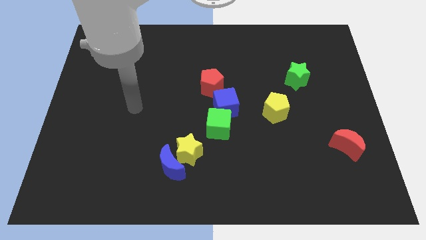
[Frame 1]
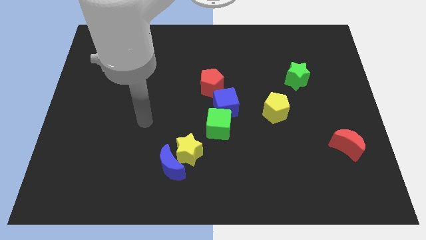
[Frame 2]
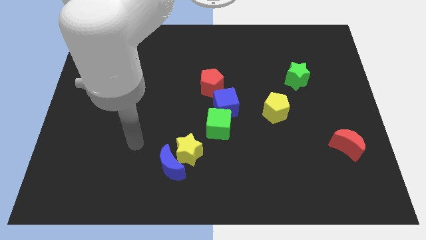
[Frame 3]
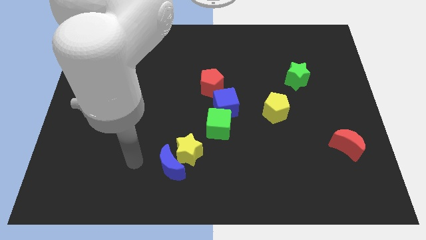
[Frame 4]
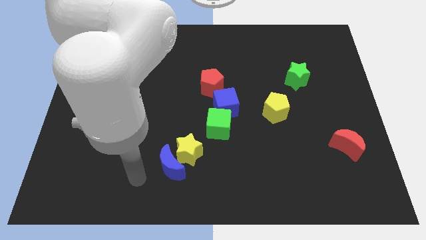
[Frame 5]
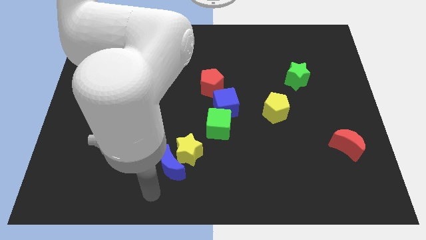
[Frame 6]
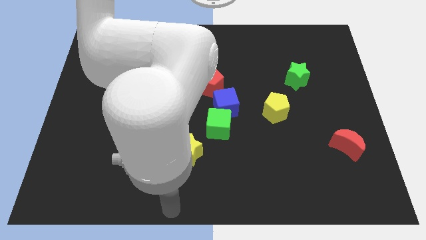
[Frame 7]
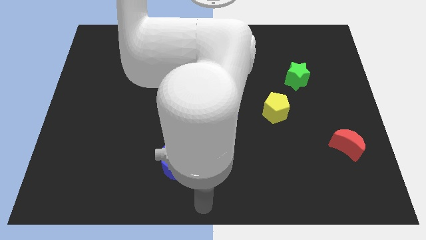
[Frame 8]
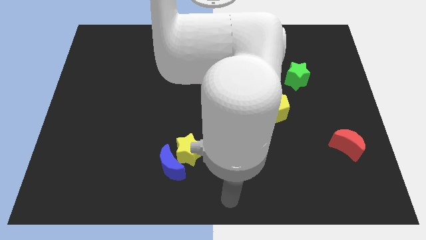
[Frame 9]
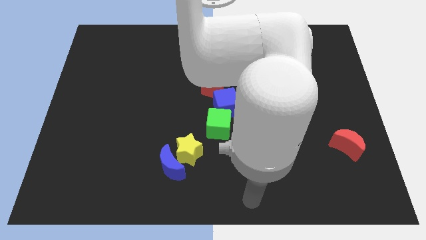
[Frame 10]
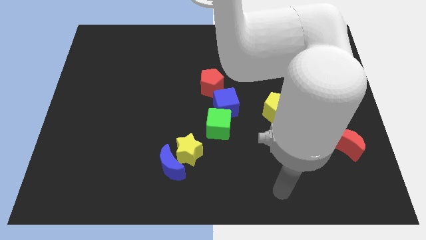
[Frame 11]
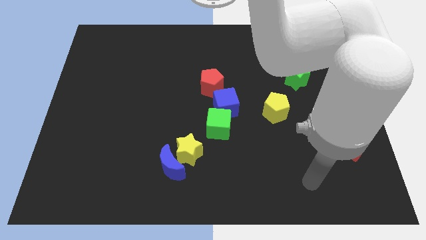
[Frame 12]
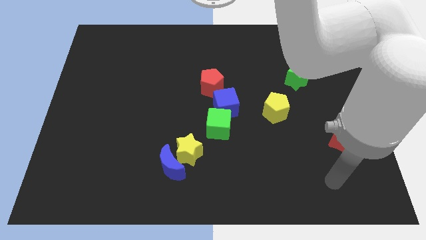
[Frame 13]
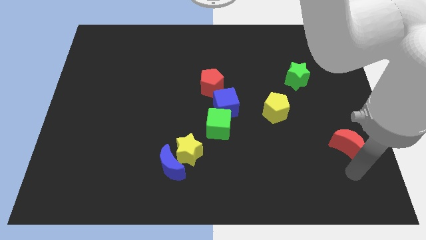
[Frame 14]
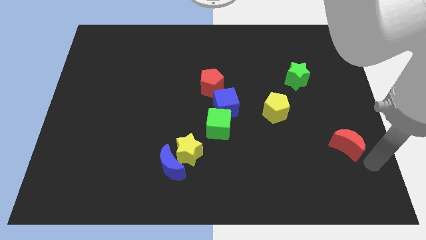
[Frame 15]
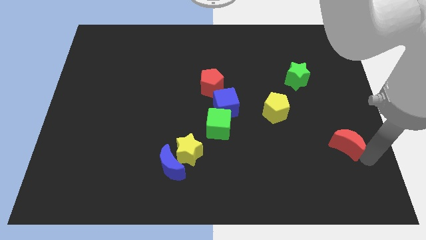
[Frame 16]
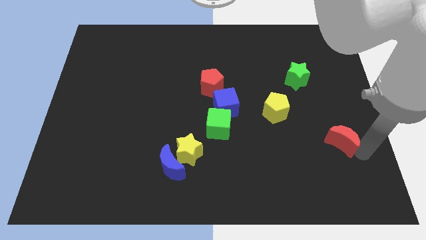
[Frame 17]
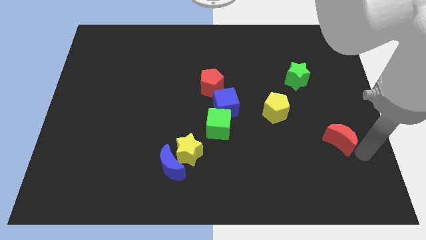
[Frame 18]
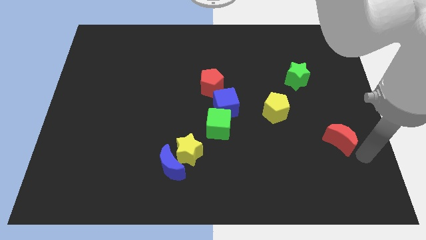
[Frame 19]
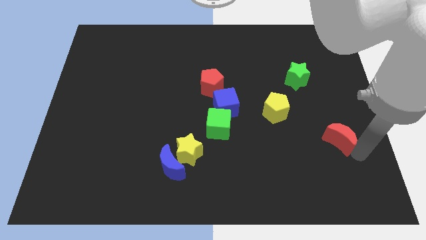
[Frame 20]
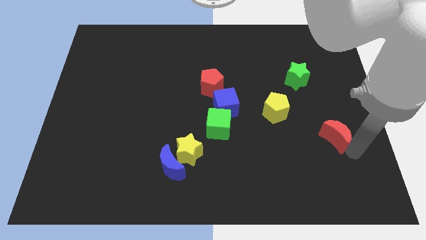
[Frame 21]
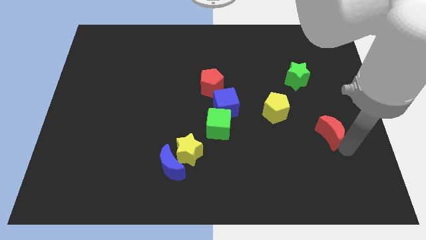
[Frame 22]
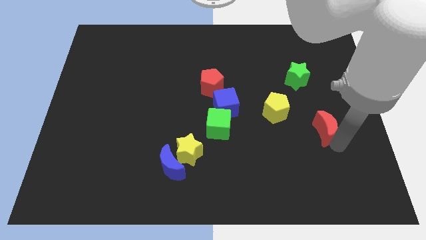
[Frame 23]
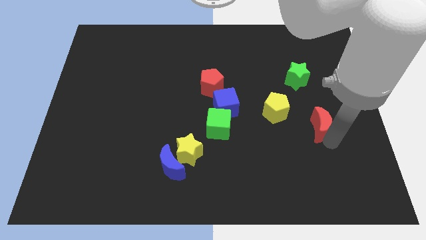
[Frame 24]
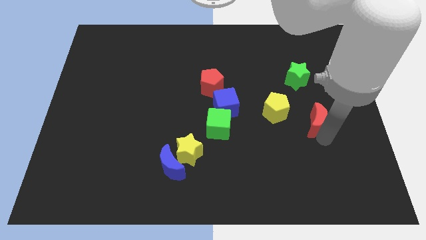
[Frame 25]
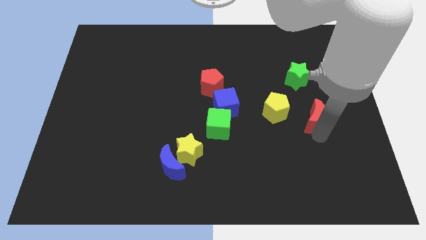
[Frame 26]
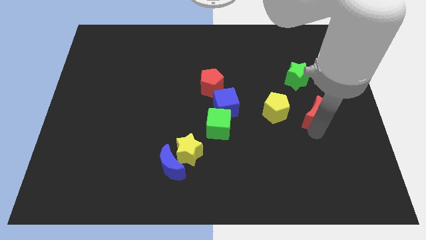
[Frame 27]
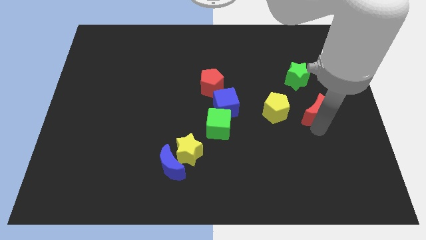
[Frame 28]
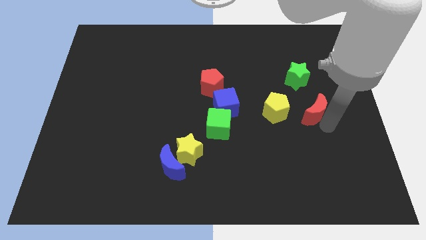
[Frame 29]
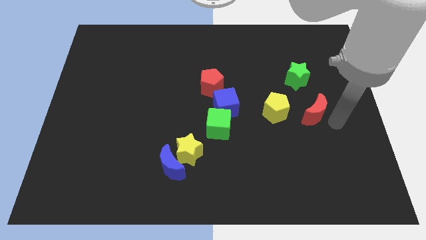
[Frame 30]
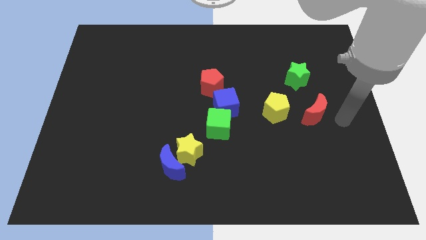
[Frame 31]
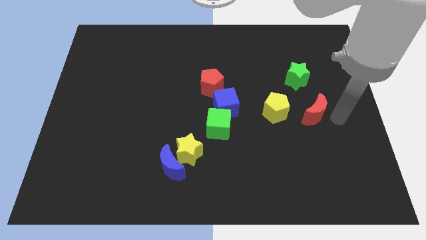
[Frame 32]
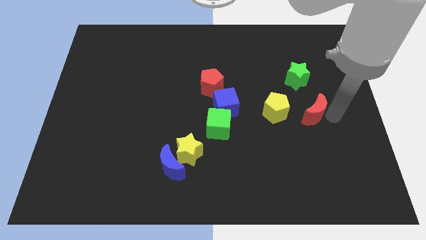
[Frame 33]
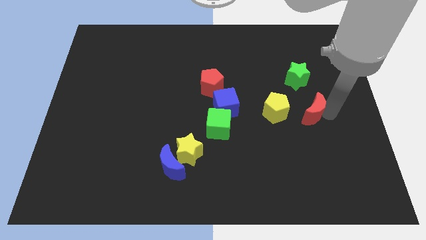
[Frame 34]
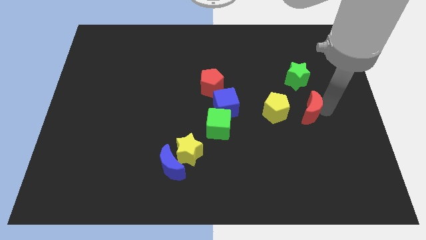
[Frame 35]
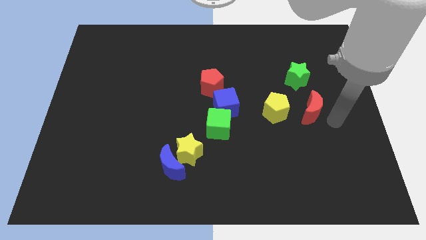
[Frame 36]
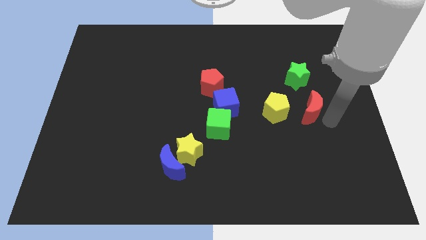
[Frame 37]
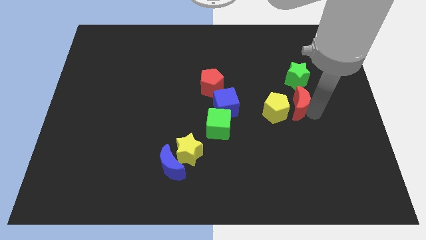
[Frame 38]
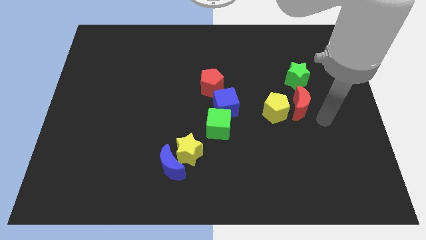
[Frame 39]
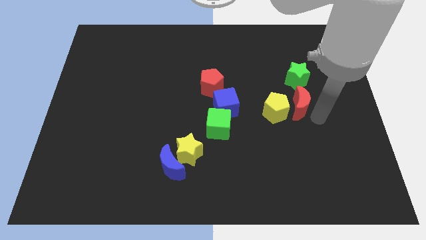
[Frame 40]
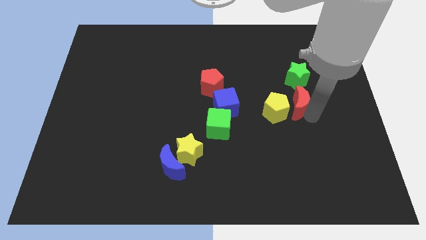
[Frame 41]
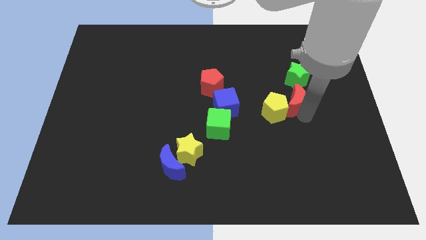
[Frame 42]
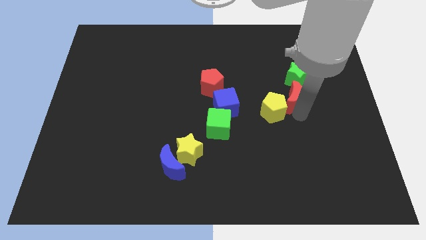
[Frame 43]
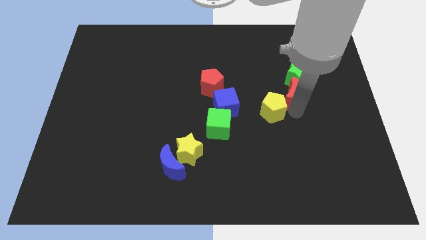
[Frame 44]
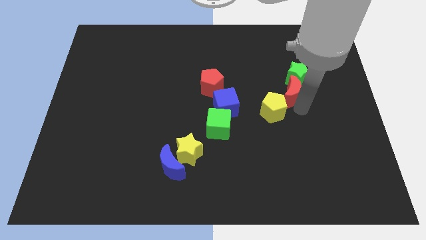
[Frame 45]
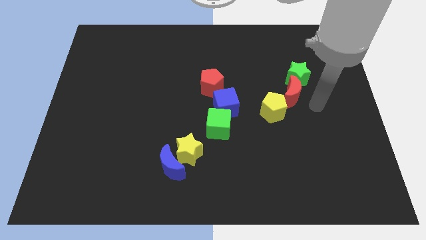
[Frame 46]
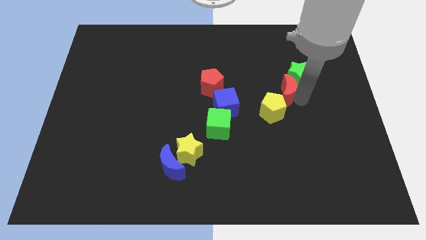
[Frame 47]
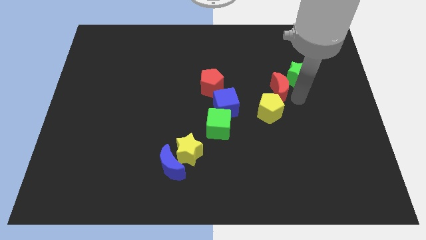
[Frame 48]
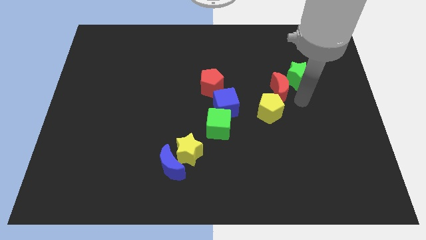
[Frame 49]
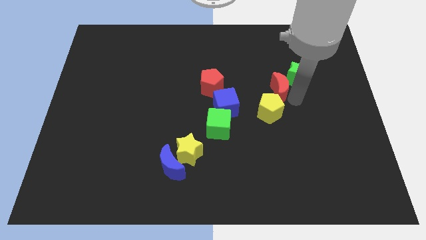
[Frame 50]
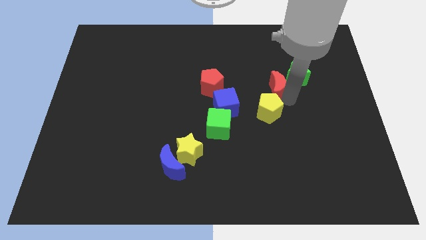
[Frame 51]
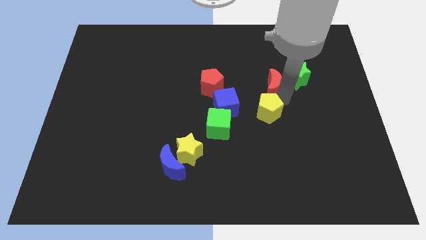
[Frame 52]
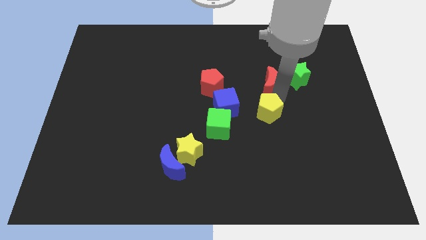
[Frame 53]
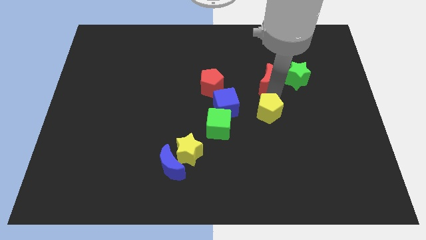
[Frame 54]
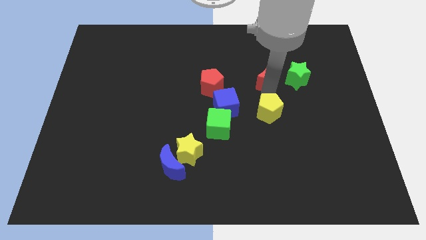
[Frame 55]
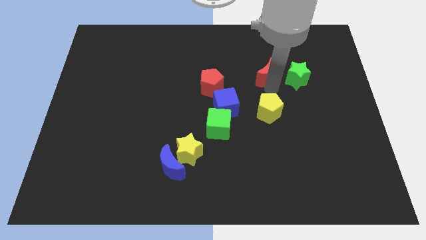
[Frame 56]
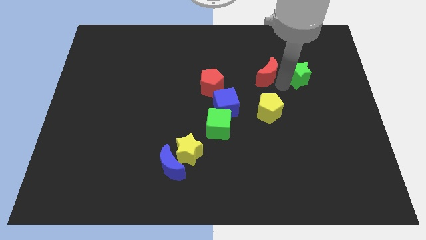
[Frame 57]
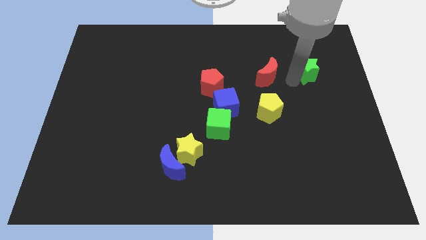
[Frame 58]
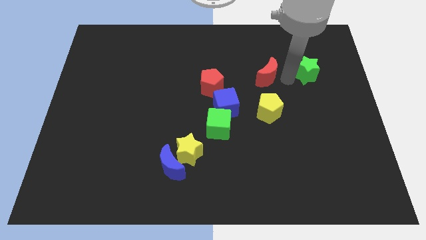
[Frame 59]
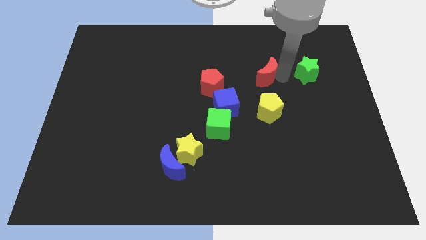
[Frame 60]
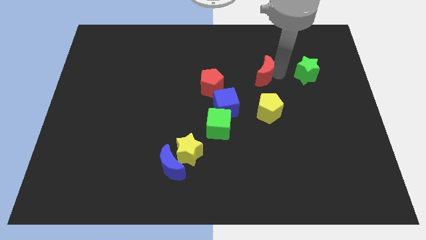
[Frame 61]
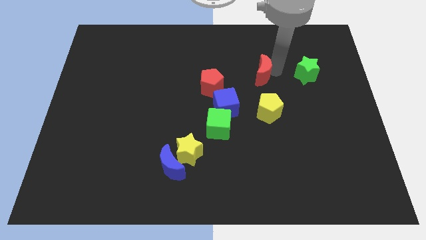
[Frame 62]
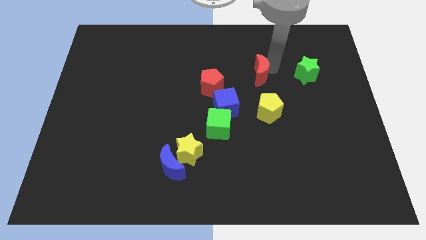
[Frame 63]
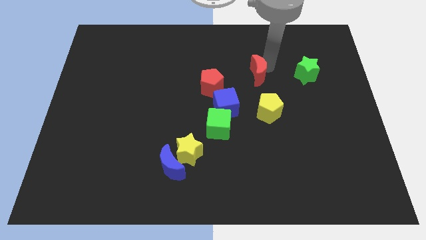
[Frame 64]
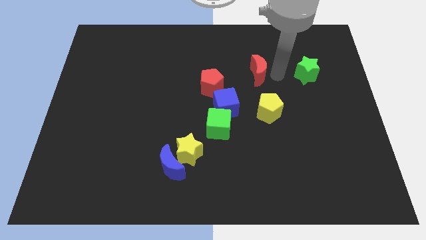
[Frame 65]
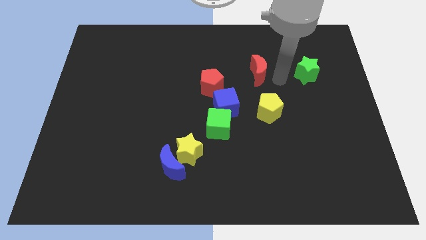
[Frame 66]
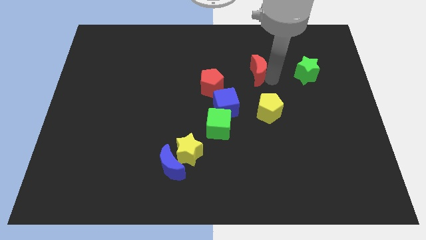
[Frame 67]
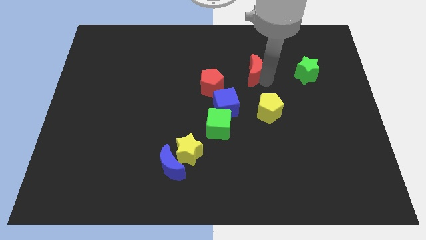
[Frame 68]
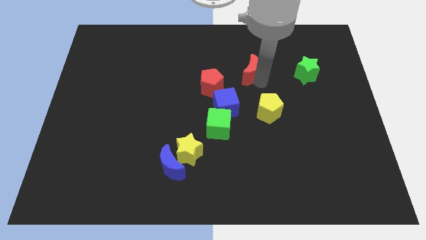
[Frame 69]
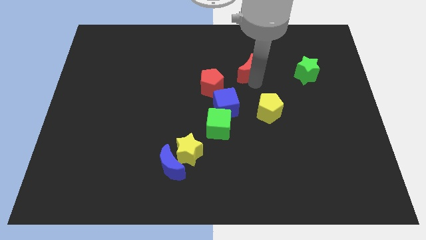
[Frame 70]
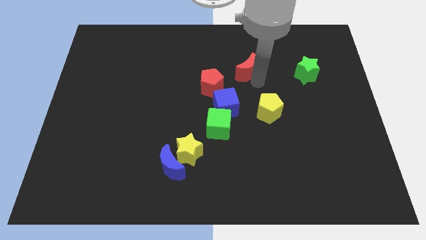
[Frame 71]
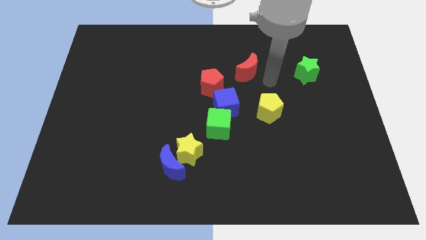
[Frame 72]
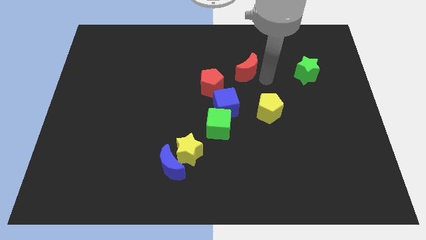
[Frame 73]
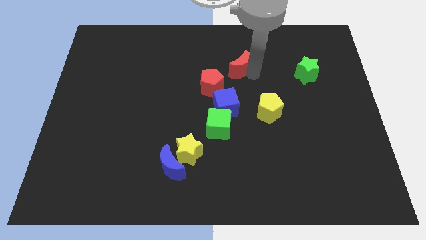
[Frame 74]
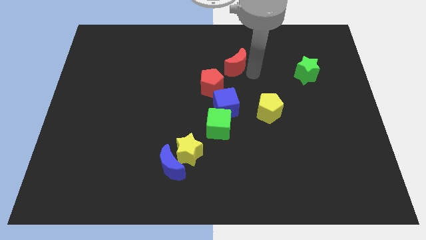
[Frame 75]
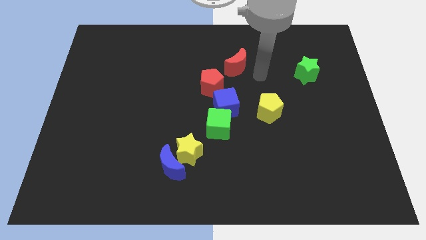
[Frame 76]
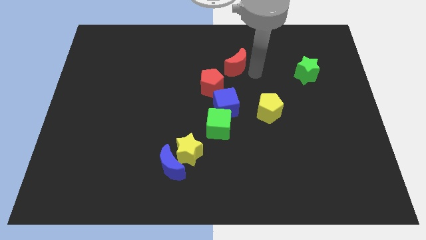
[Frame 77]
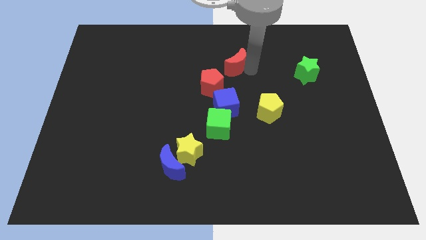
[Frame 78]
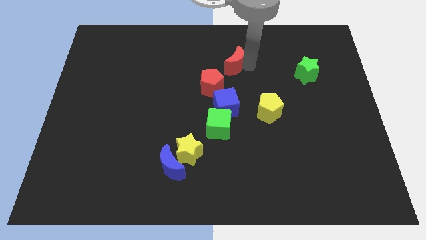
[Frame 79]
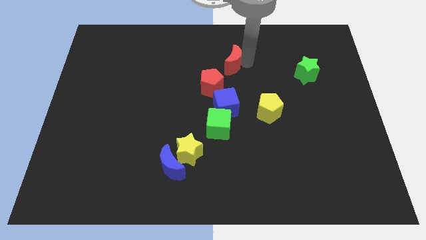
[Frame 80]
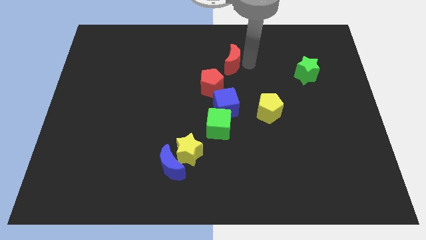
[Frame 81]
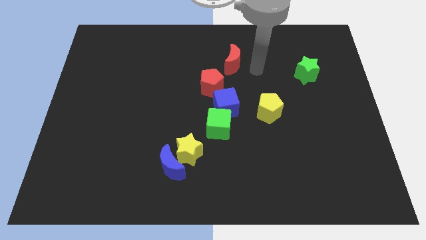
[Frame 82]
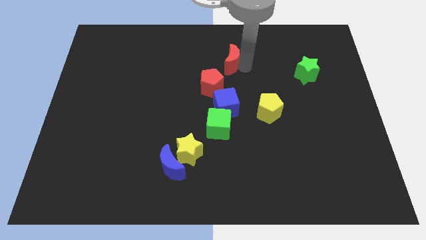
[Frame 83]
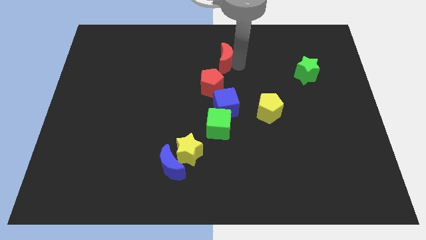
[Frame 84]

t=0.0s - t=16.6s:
move the red moon to the top side of the red pentagon
